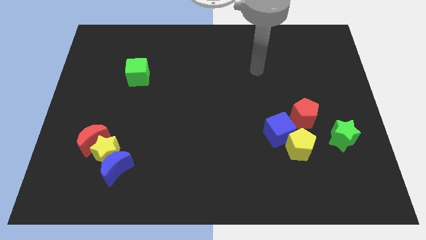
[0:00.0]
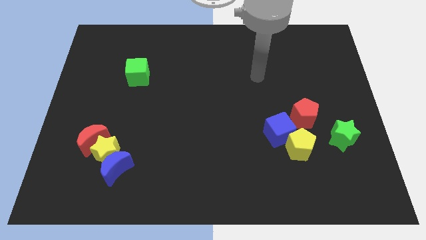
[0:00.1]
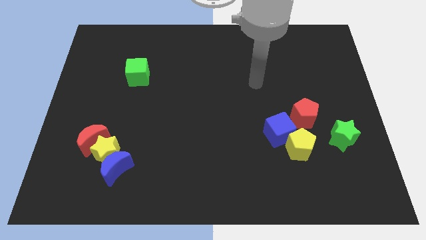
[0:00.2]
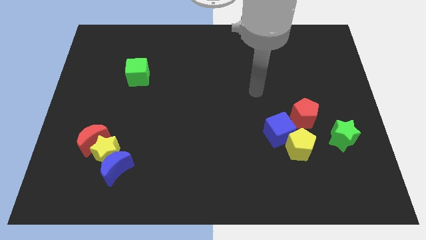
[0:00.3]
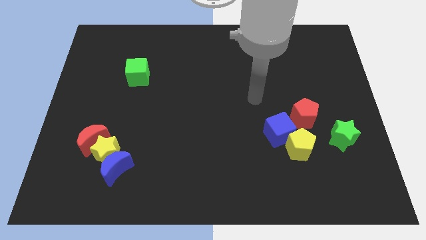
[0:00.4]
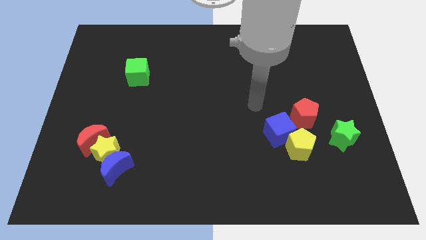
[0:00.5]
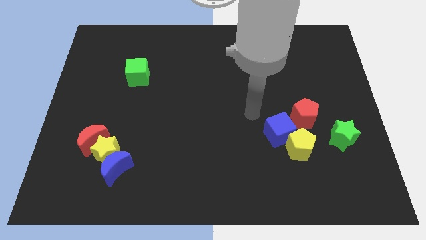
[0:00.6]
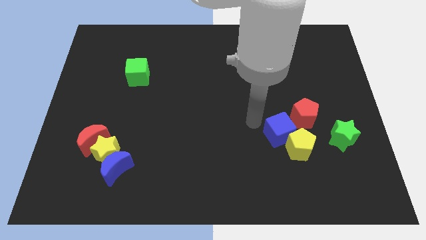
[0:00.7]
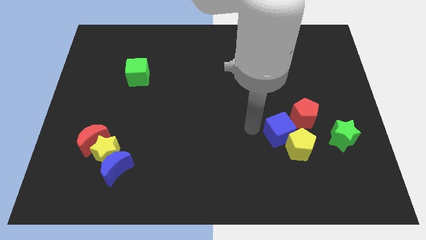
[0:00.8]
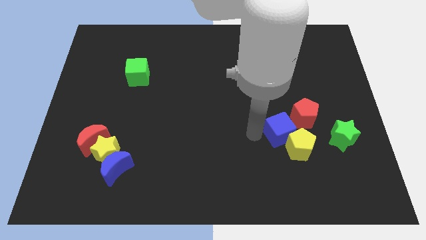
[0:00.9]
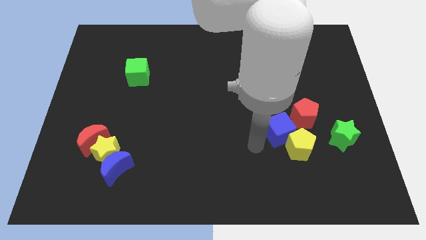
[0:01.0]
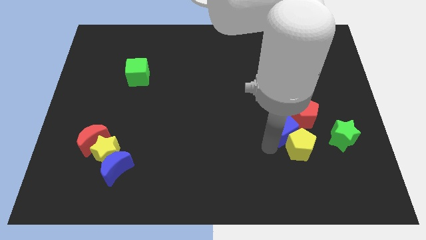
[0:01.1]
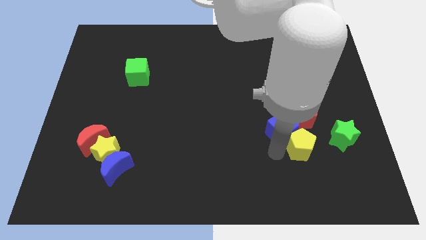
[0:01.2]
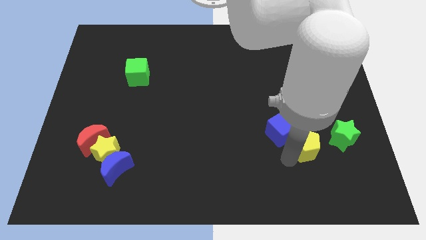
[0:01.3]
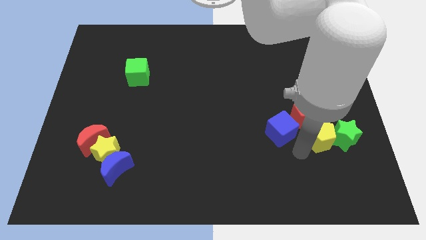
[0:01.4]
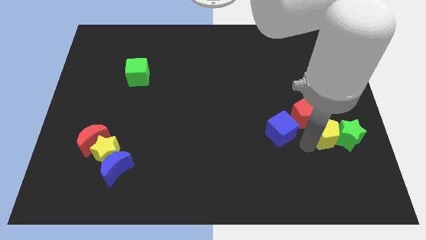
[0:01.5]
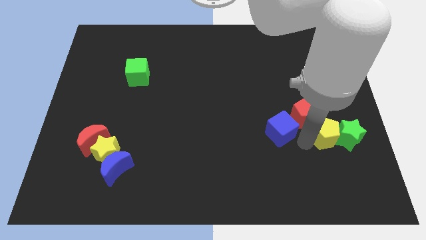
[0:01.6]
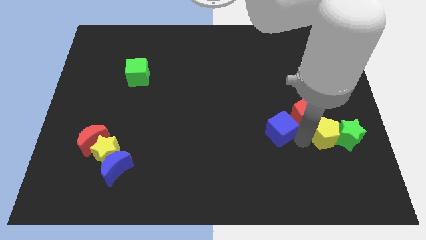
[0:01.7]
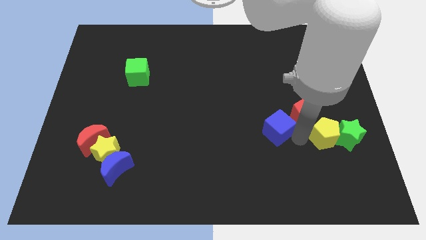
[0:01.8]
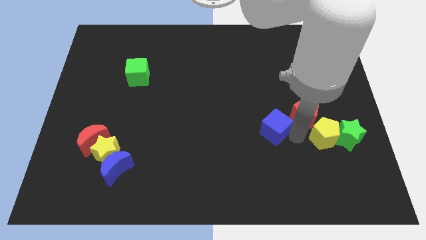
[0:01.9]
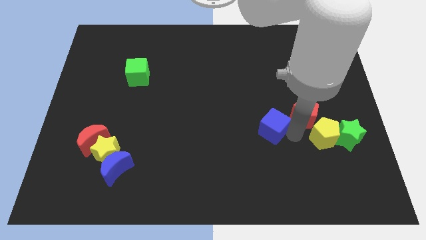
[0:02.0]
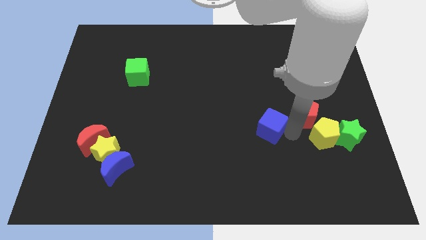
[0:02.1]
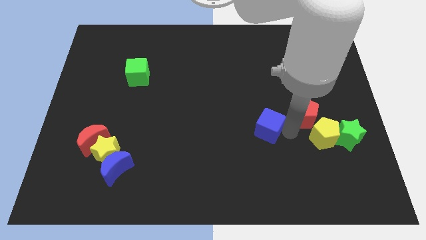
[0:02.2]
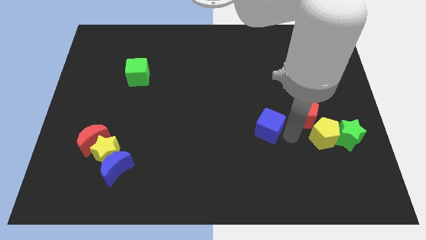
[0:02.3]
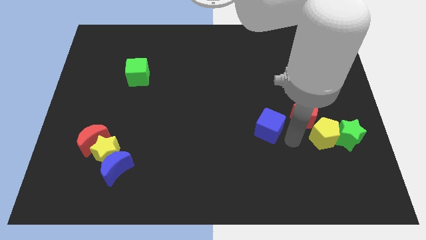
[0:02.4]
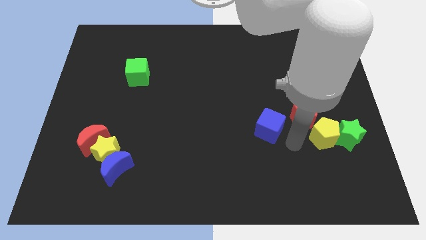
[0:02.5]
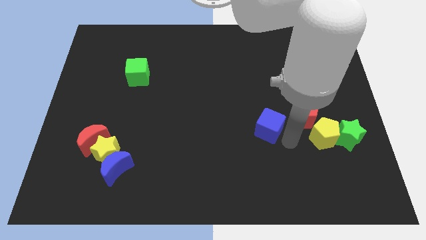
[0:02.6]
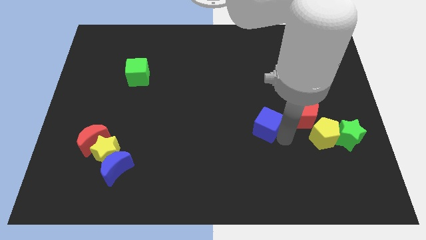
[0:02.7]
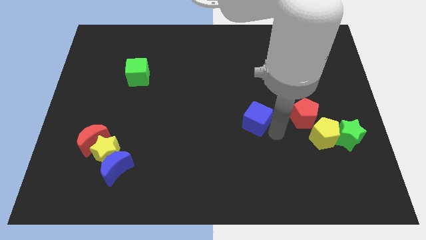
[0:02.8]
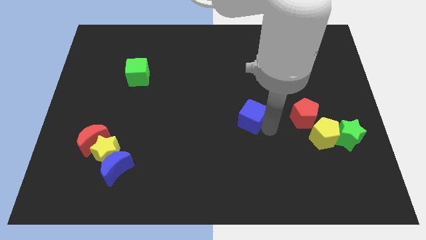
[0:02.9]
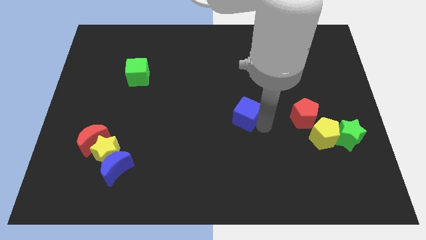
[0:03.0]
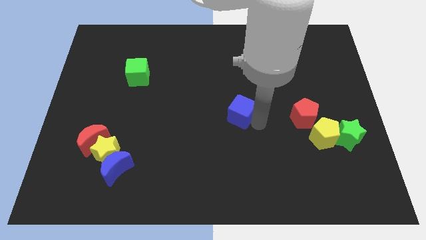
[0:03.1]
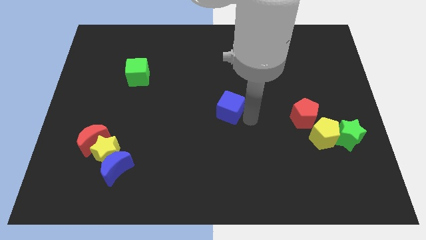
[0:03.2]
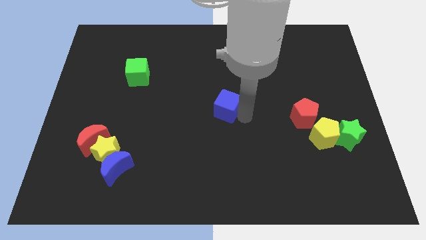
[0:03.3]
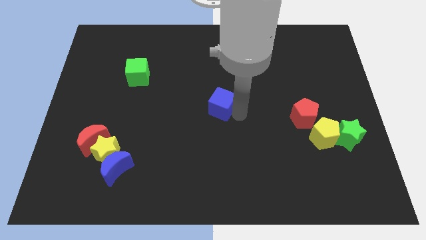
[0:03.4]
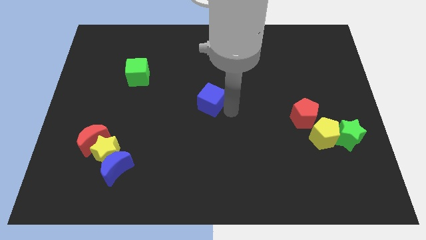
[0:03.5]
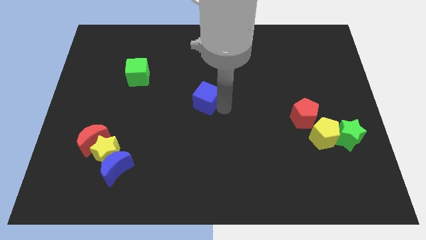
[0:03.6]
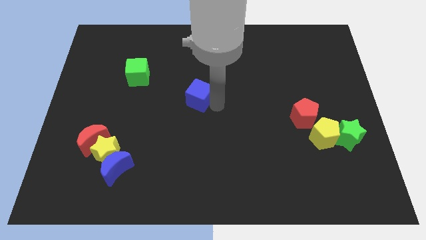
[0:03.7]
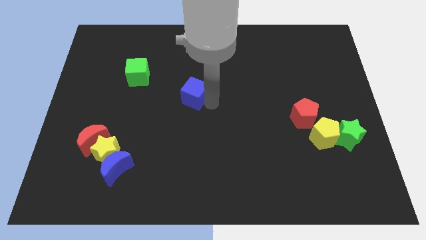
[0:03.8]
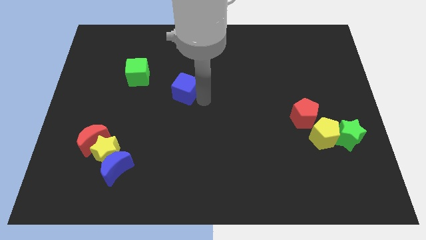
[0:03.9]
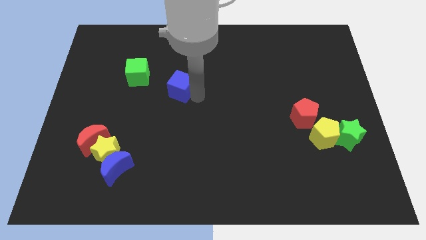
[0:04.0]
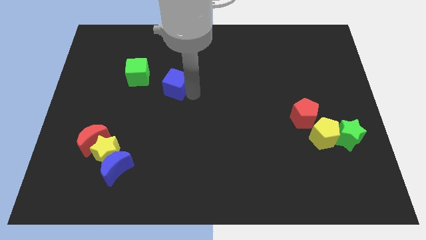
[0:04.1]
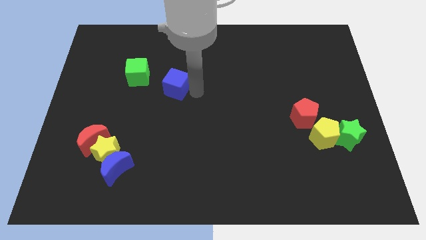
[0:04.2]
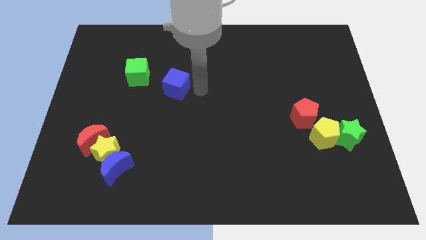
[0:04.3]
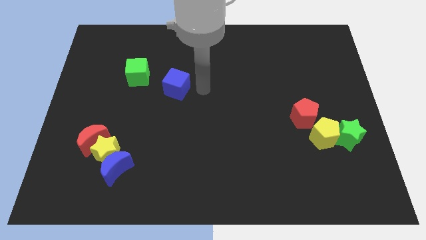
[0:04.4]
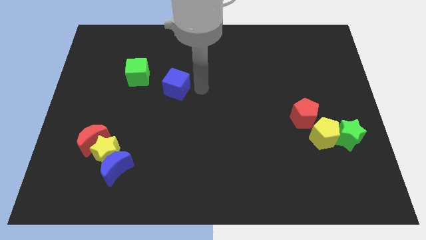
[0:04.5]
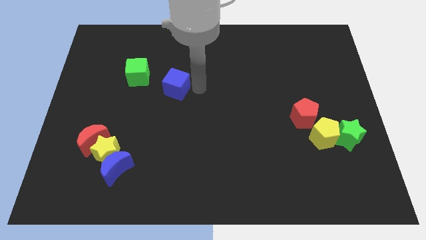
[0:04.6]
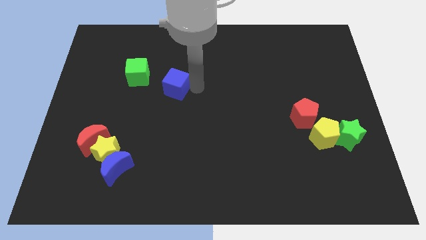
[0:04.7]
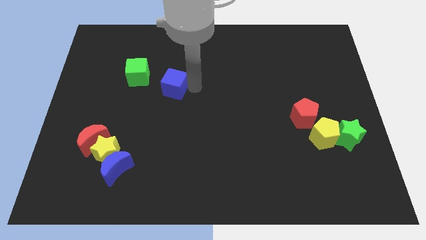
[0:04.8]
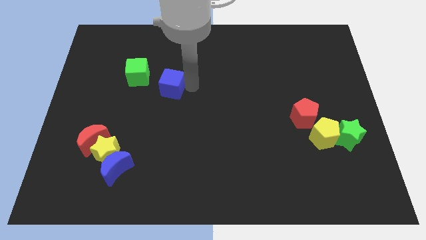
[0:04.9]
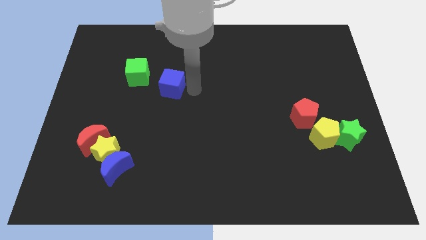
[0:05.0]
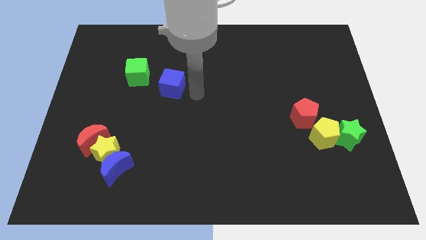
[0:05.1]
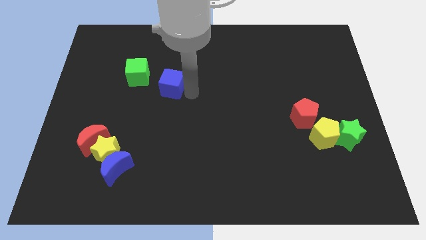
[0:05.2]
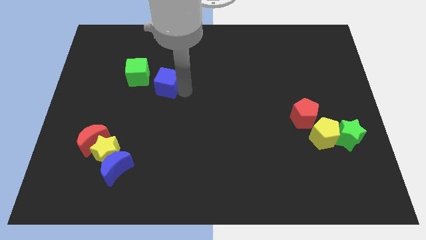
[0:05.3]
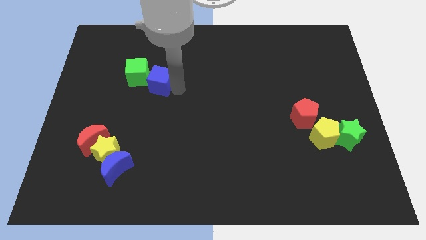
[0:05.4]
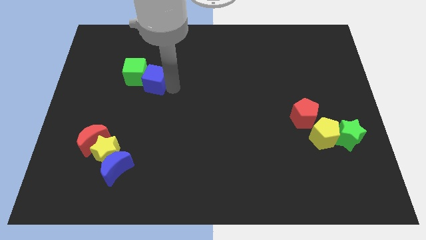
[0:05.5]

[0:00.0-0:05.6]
move the blue cube close to the green cube

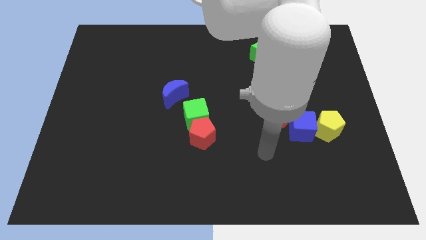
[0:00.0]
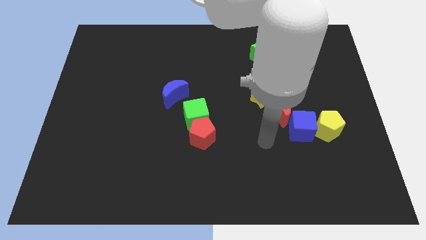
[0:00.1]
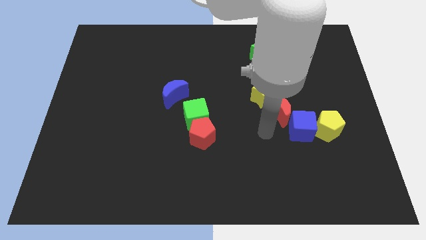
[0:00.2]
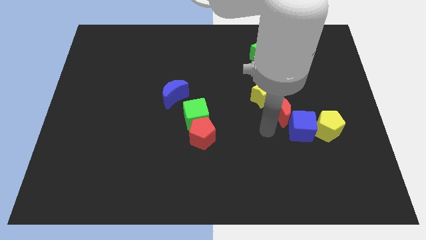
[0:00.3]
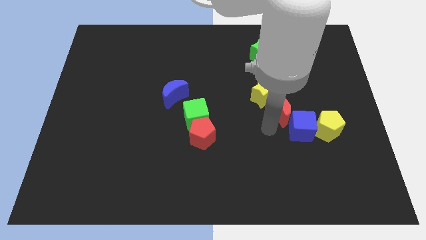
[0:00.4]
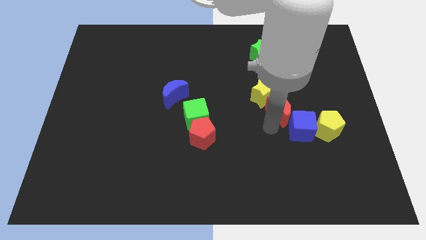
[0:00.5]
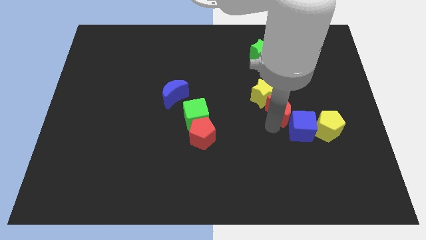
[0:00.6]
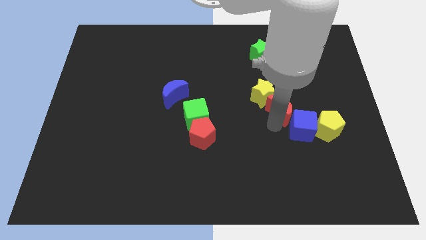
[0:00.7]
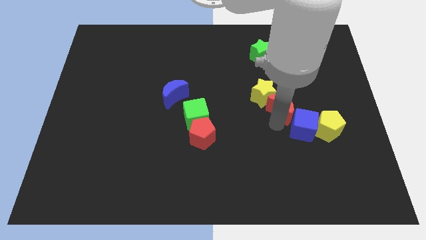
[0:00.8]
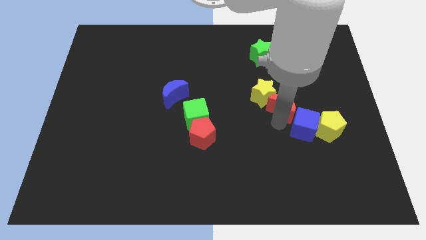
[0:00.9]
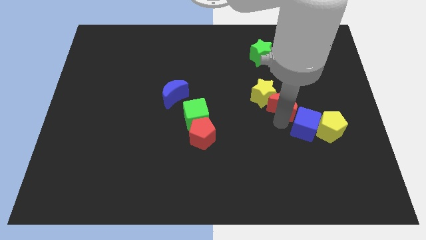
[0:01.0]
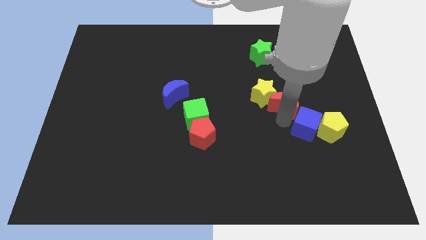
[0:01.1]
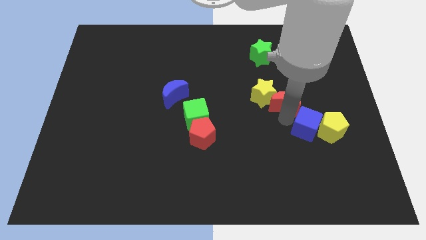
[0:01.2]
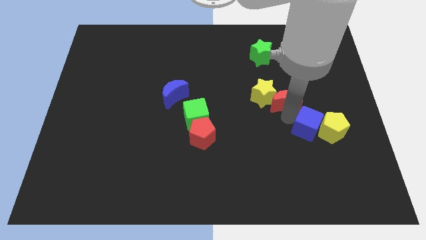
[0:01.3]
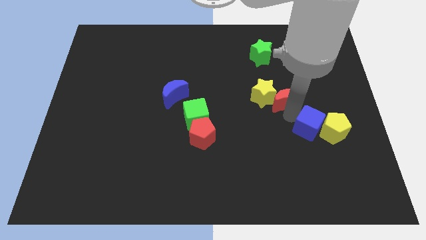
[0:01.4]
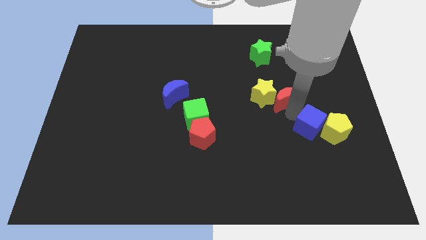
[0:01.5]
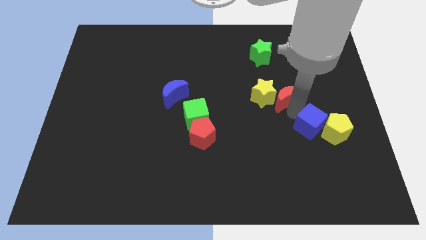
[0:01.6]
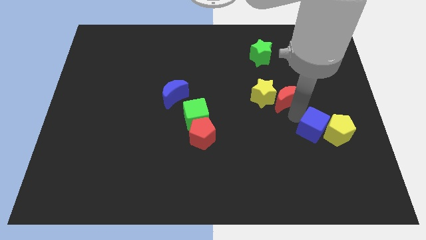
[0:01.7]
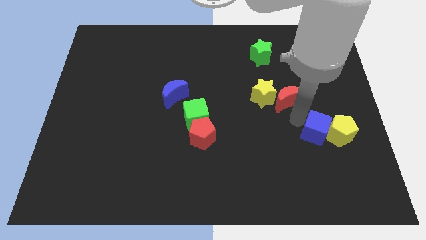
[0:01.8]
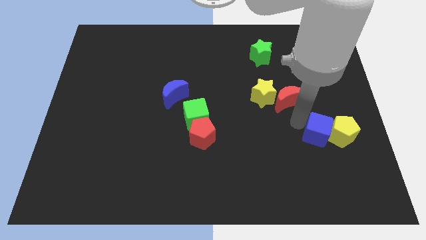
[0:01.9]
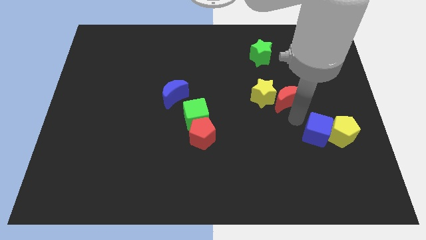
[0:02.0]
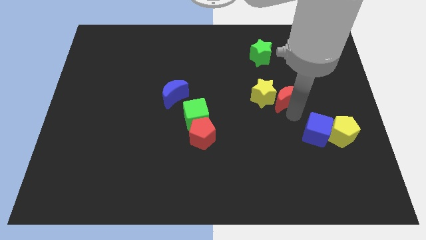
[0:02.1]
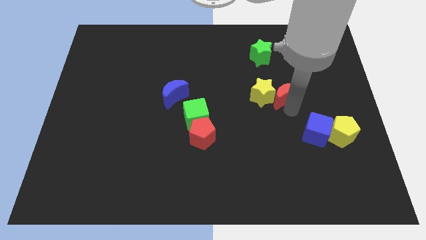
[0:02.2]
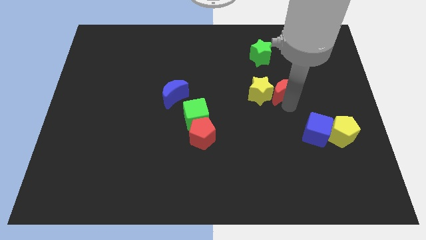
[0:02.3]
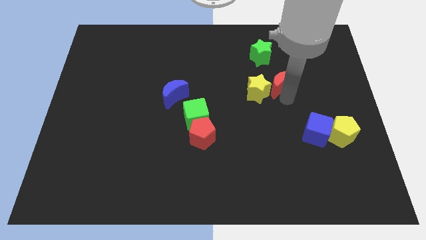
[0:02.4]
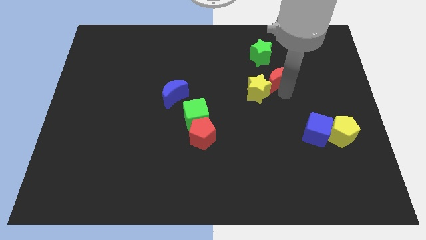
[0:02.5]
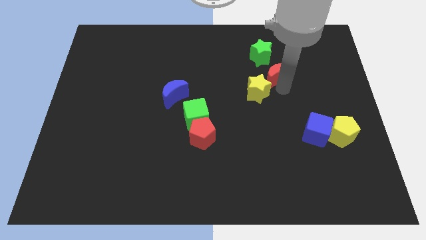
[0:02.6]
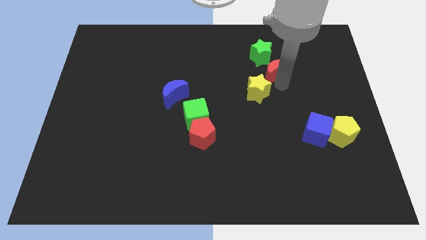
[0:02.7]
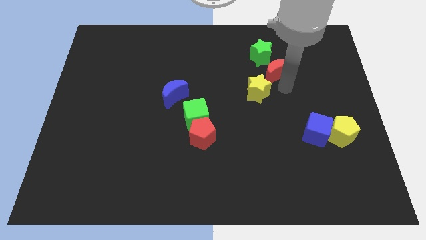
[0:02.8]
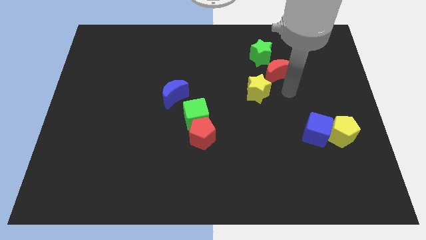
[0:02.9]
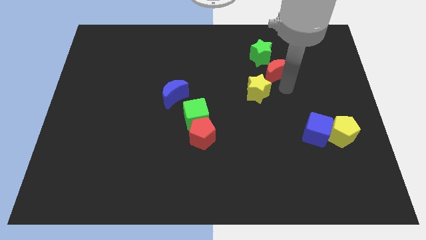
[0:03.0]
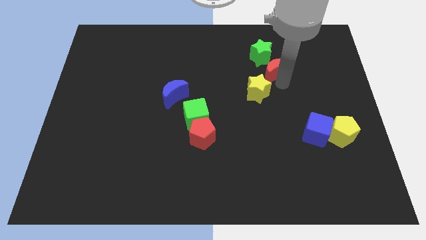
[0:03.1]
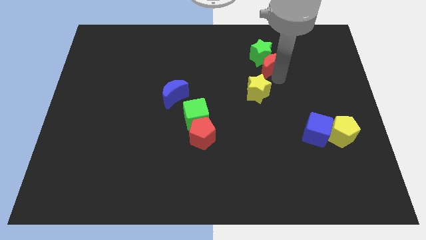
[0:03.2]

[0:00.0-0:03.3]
slide the red moon next to the green star
